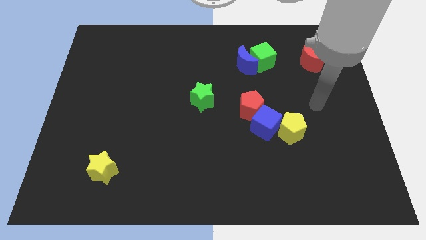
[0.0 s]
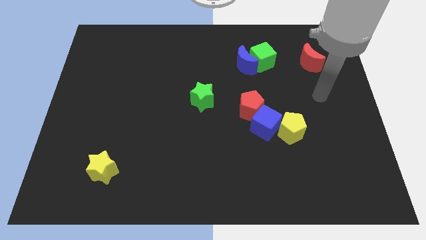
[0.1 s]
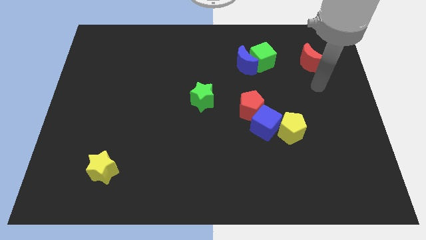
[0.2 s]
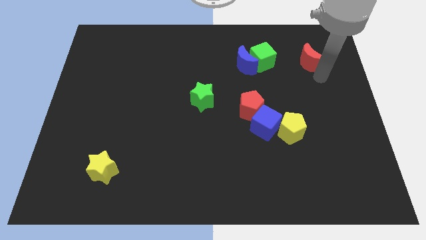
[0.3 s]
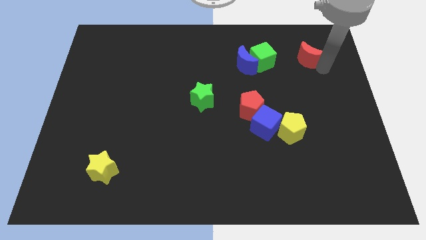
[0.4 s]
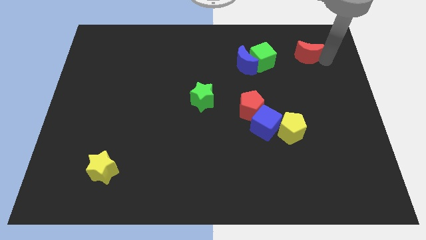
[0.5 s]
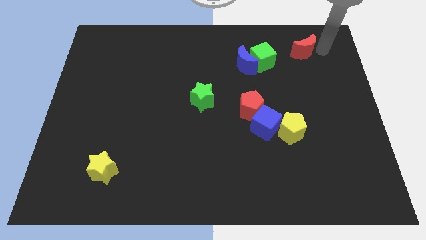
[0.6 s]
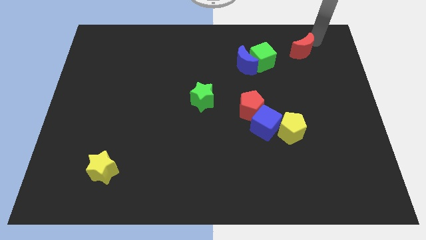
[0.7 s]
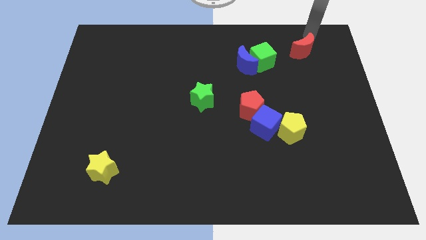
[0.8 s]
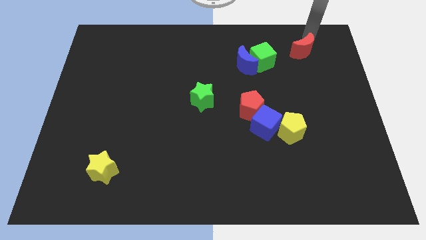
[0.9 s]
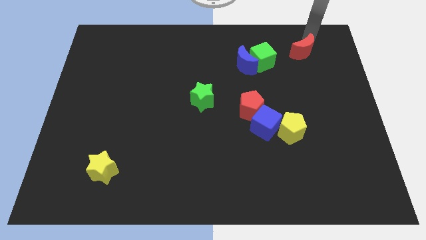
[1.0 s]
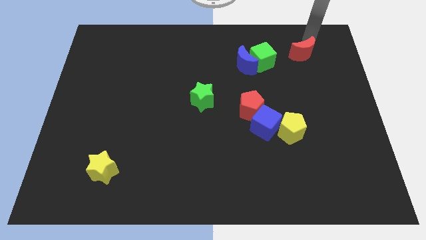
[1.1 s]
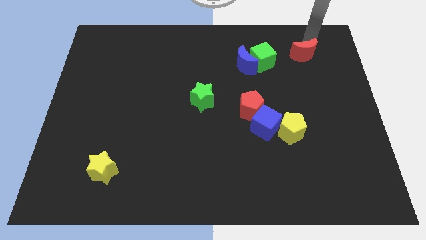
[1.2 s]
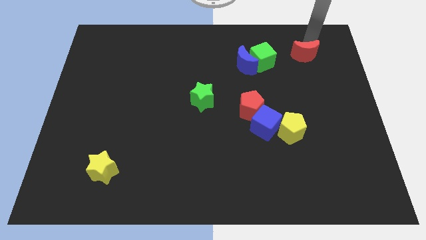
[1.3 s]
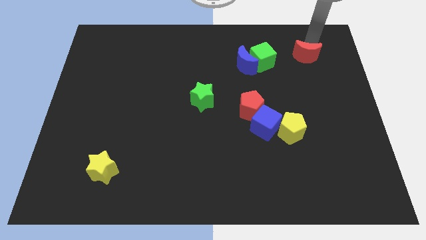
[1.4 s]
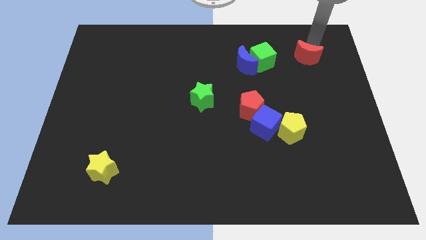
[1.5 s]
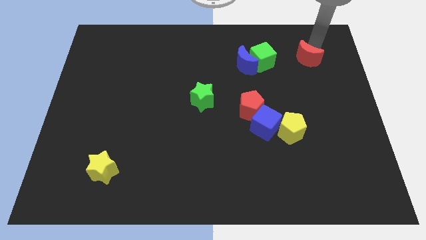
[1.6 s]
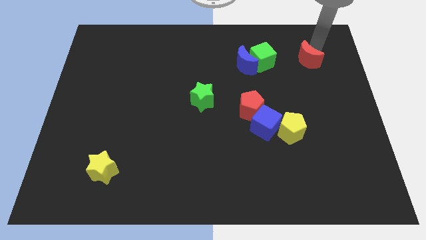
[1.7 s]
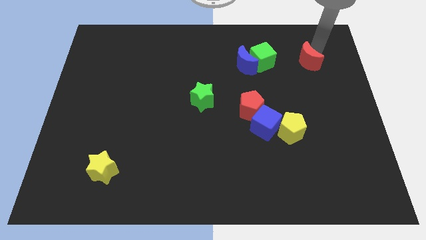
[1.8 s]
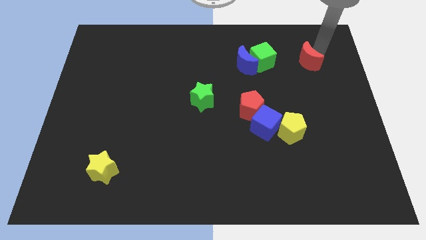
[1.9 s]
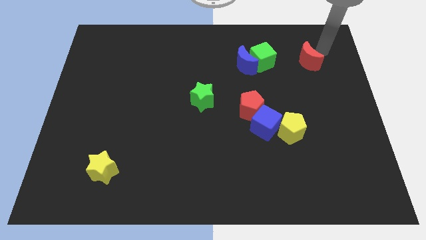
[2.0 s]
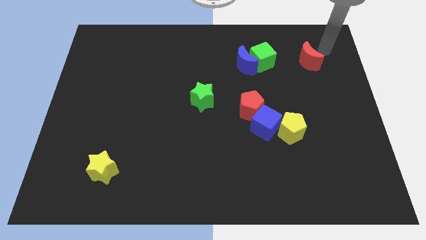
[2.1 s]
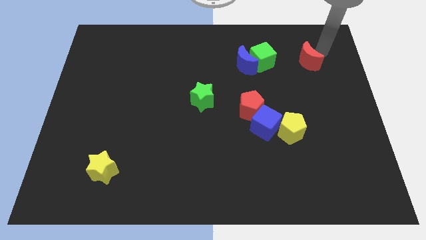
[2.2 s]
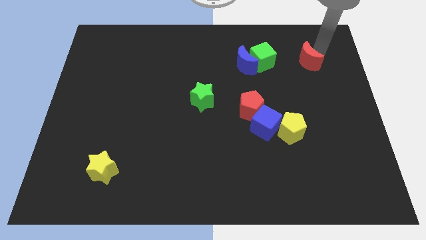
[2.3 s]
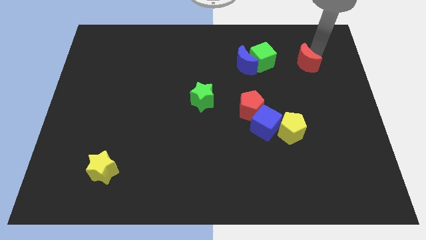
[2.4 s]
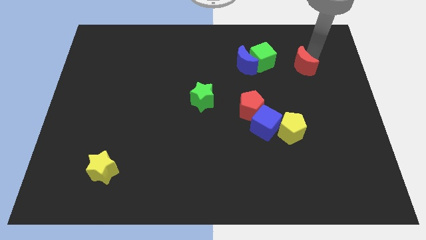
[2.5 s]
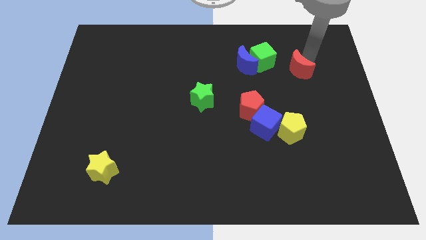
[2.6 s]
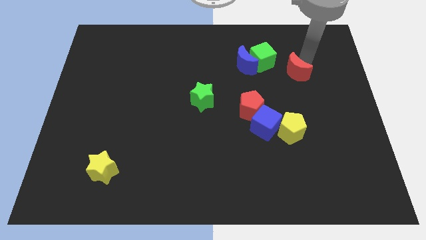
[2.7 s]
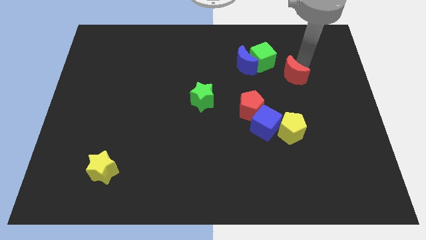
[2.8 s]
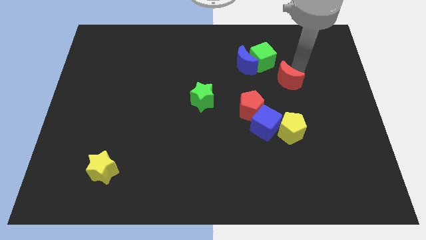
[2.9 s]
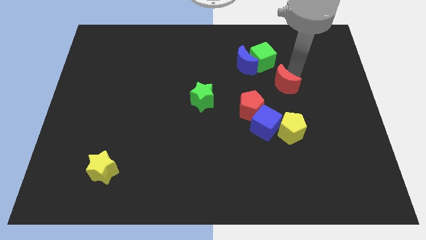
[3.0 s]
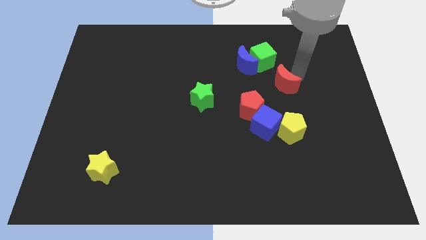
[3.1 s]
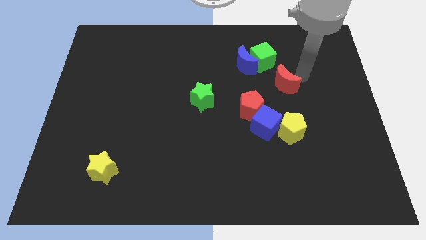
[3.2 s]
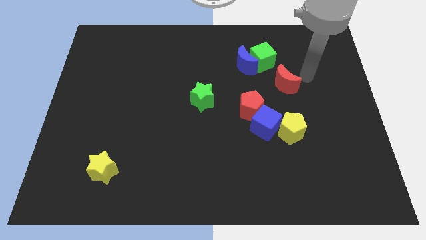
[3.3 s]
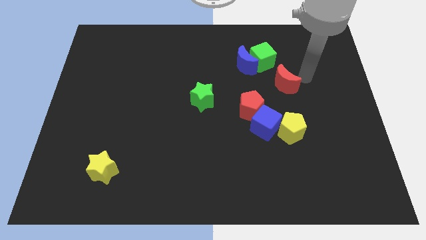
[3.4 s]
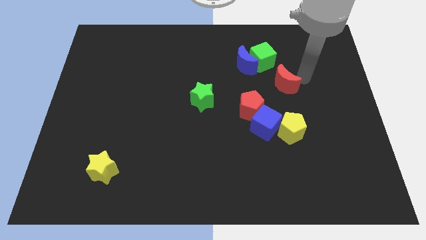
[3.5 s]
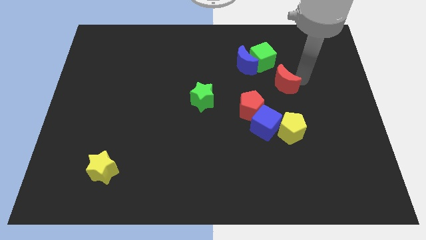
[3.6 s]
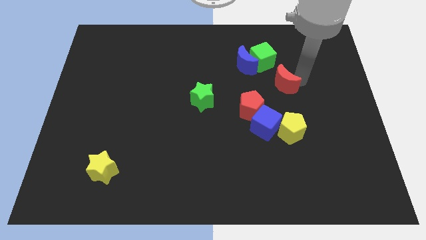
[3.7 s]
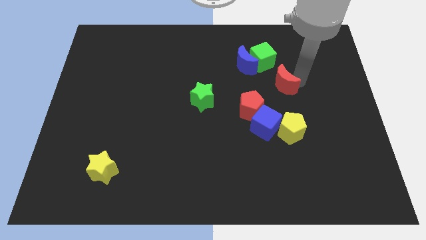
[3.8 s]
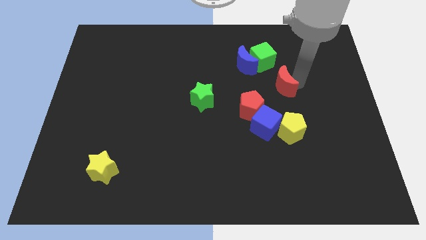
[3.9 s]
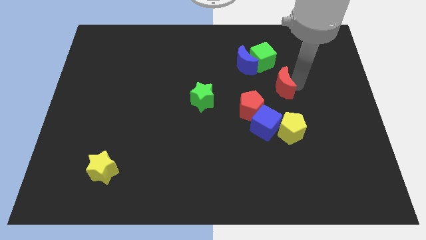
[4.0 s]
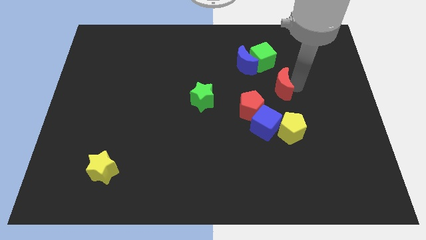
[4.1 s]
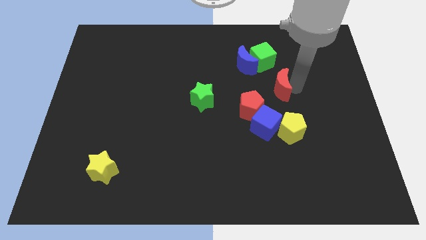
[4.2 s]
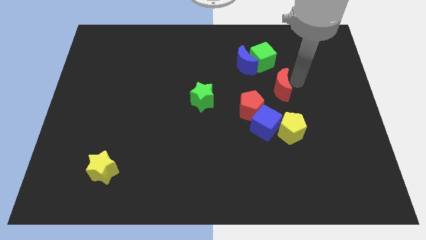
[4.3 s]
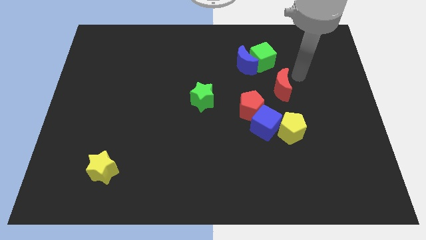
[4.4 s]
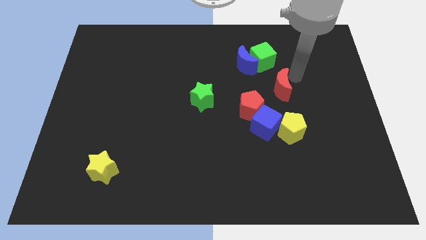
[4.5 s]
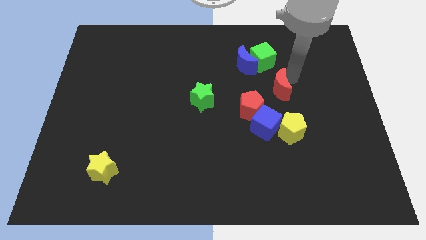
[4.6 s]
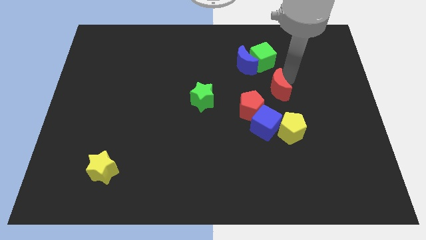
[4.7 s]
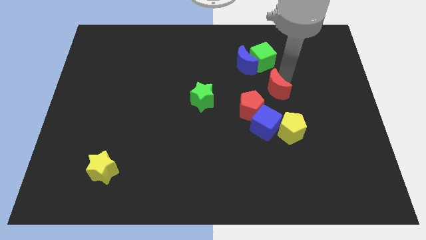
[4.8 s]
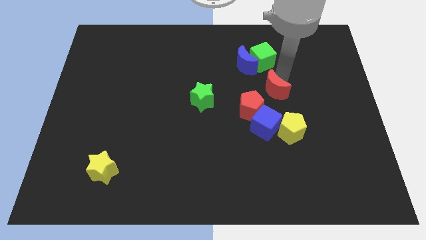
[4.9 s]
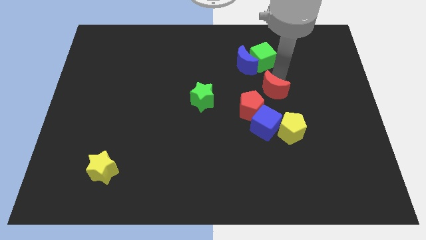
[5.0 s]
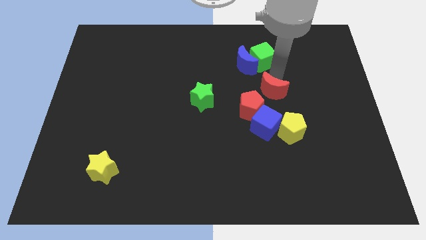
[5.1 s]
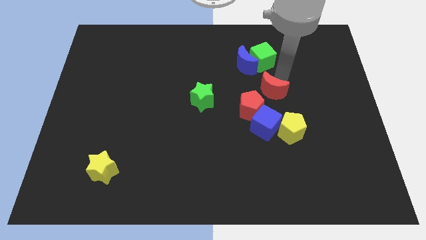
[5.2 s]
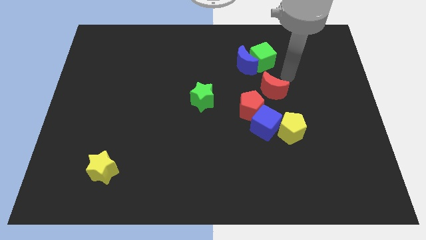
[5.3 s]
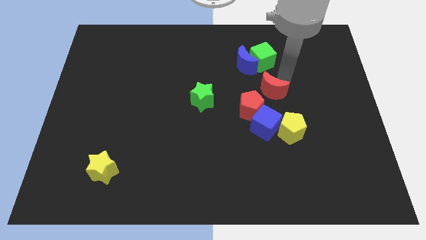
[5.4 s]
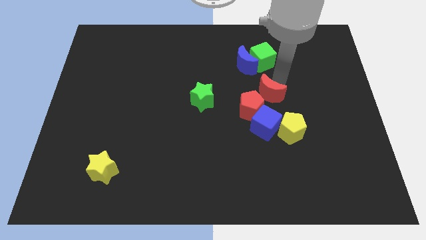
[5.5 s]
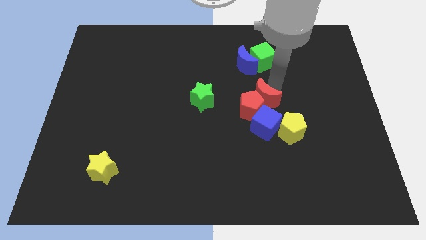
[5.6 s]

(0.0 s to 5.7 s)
push the red moon to the red pentagon

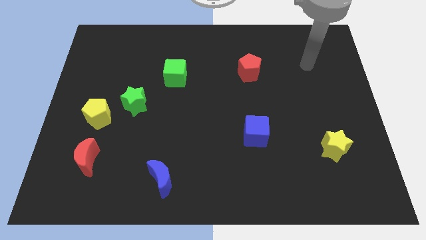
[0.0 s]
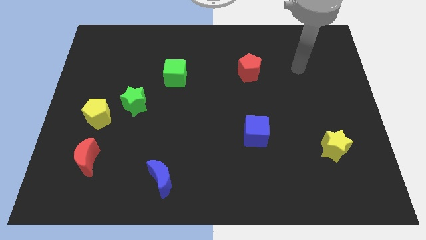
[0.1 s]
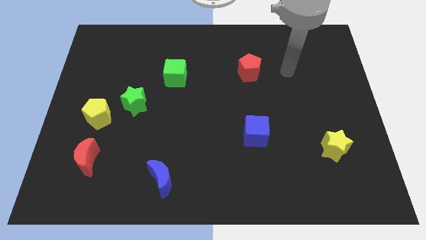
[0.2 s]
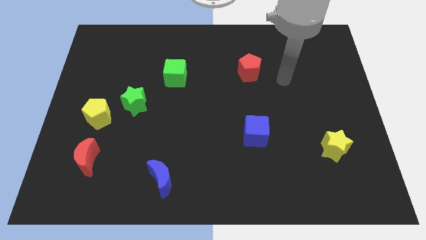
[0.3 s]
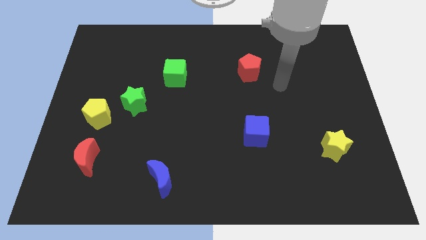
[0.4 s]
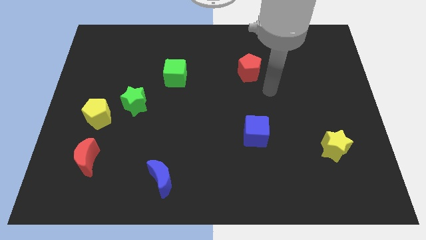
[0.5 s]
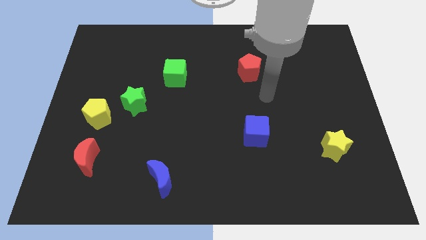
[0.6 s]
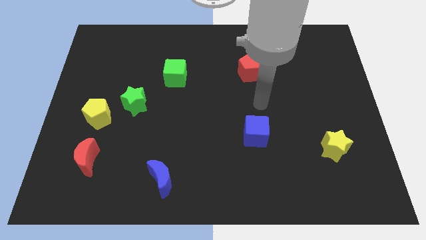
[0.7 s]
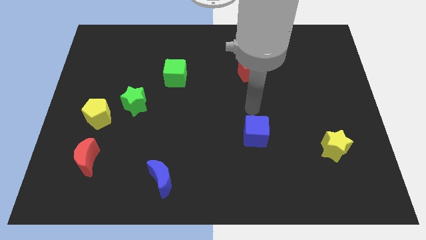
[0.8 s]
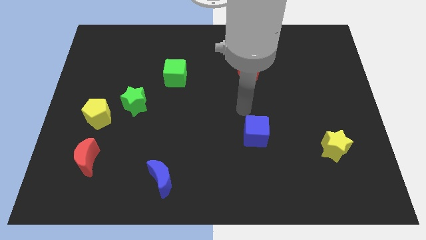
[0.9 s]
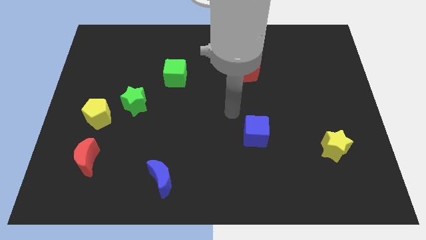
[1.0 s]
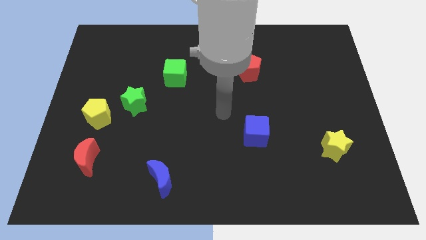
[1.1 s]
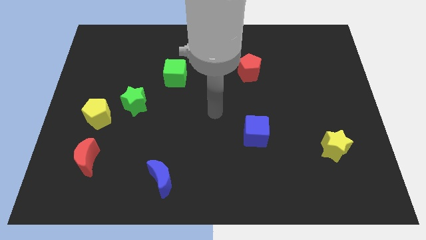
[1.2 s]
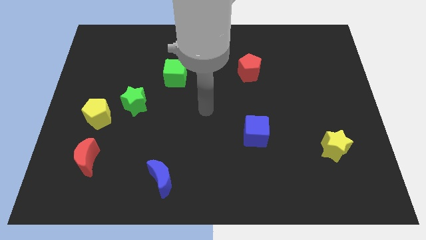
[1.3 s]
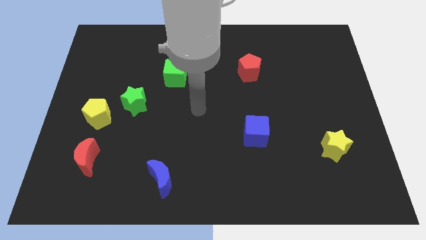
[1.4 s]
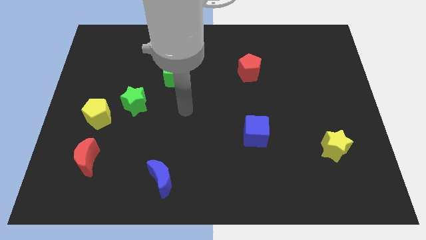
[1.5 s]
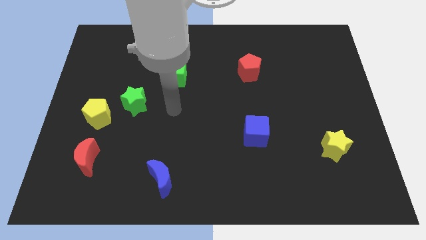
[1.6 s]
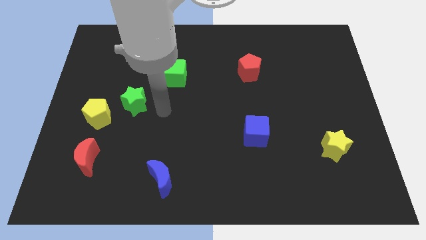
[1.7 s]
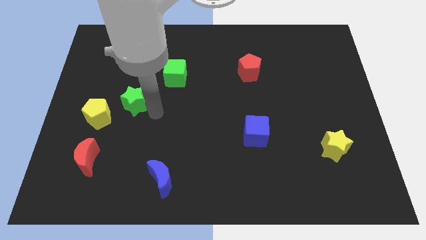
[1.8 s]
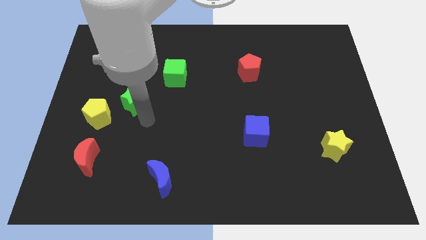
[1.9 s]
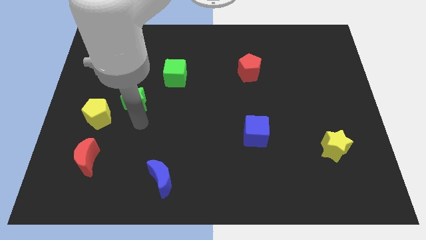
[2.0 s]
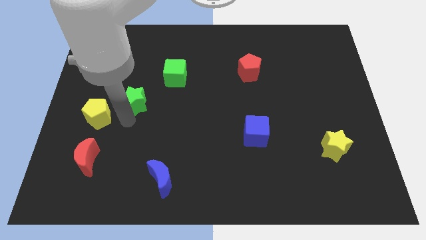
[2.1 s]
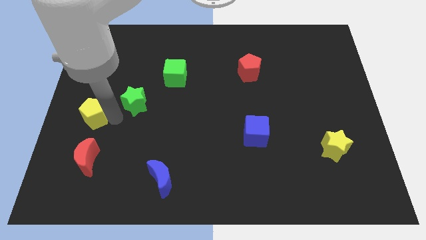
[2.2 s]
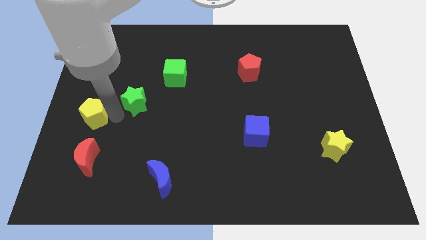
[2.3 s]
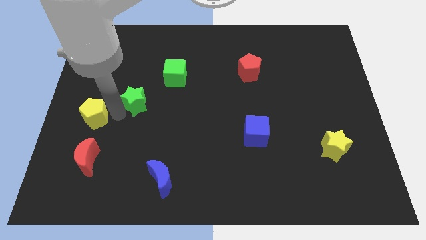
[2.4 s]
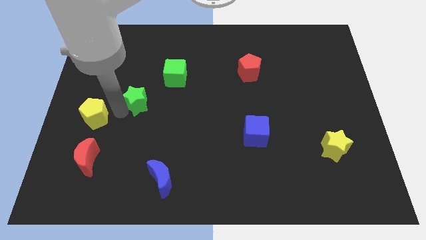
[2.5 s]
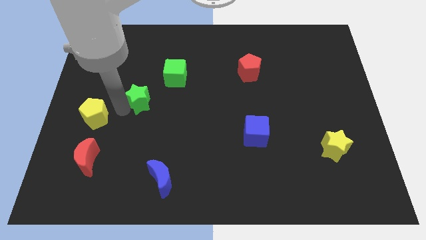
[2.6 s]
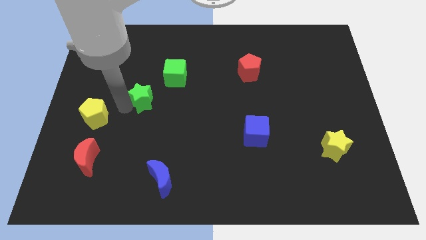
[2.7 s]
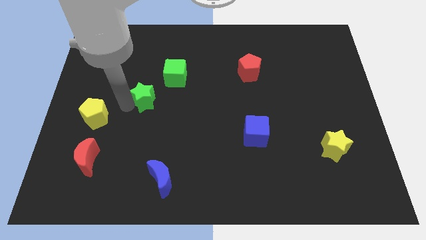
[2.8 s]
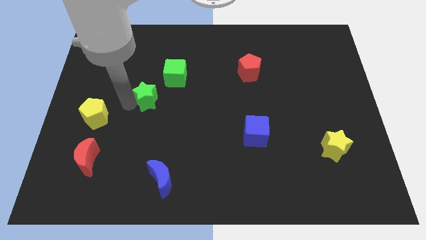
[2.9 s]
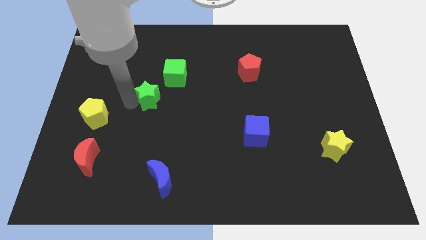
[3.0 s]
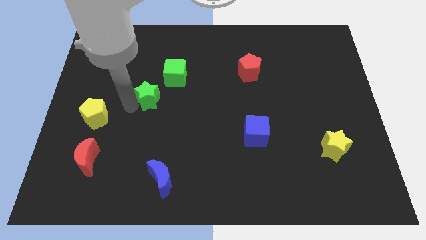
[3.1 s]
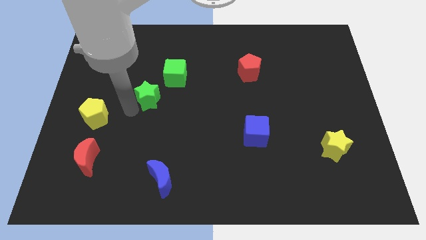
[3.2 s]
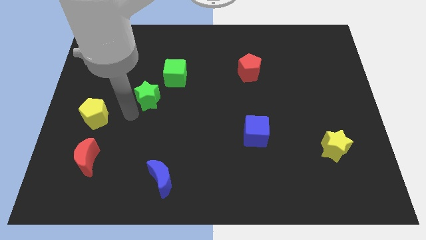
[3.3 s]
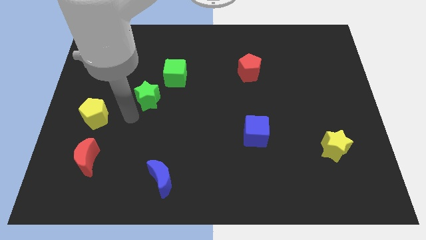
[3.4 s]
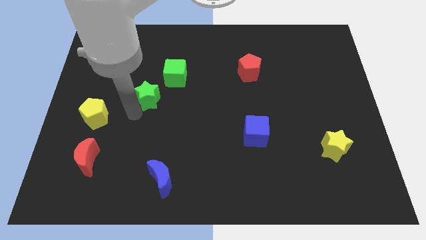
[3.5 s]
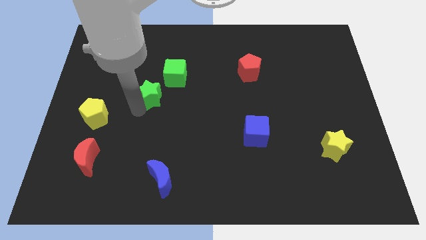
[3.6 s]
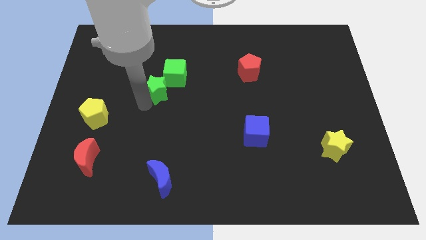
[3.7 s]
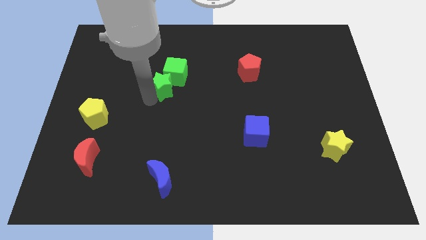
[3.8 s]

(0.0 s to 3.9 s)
put the green star towards the green cube
